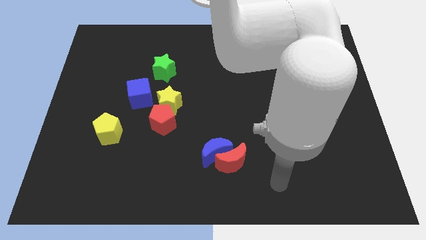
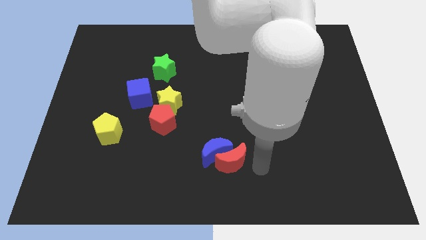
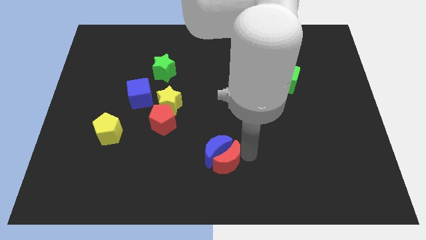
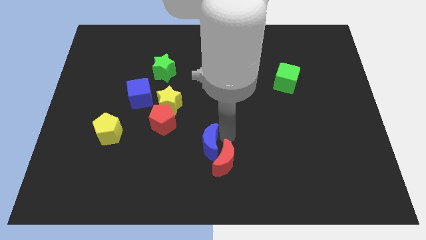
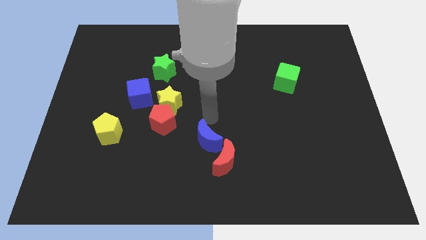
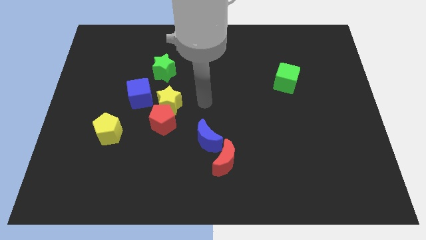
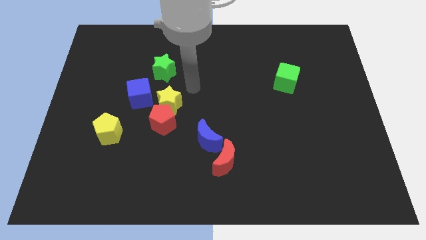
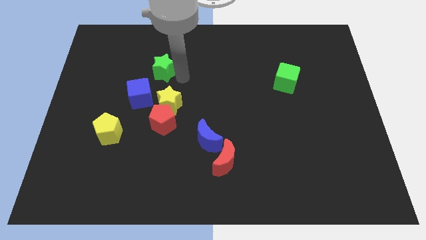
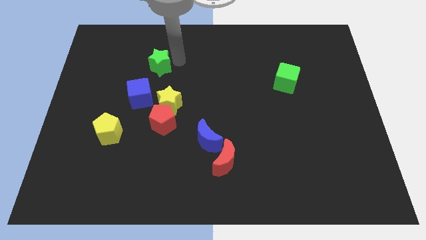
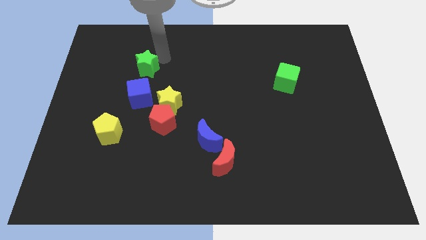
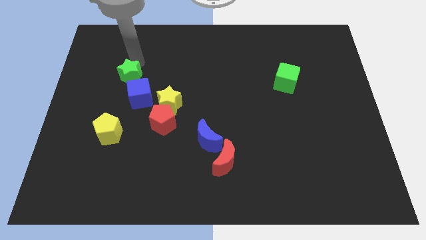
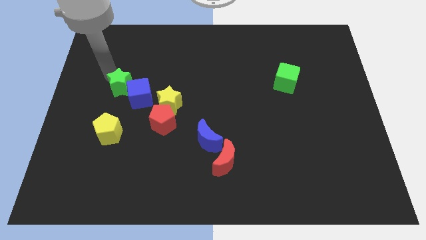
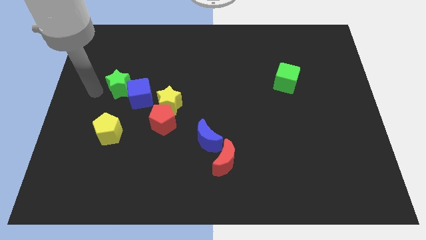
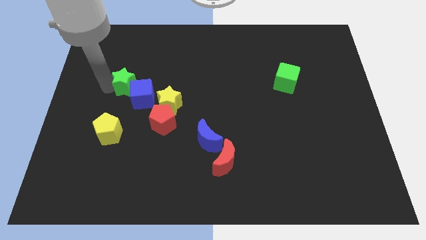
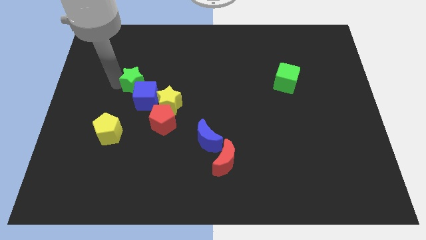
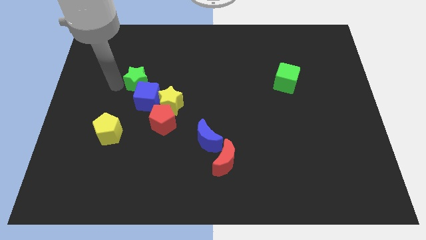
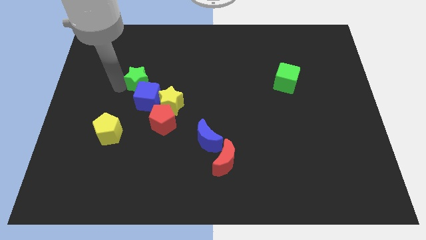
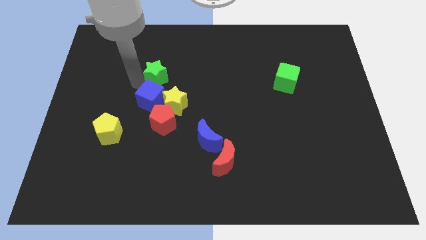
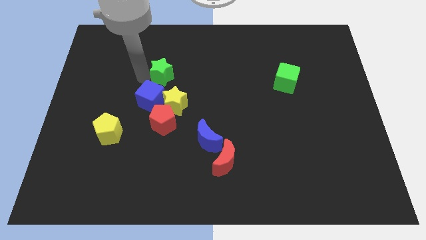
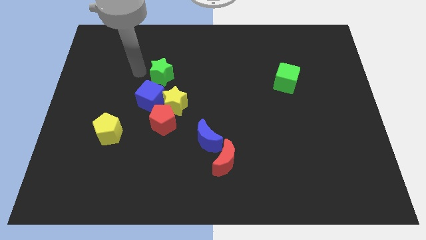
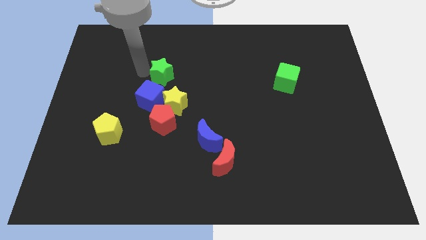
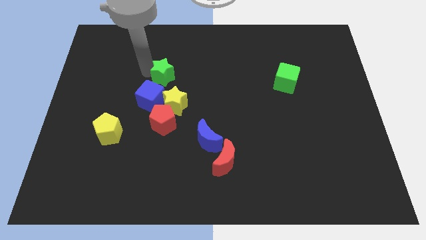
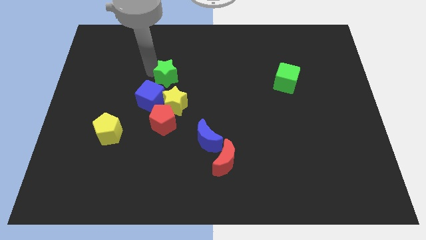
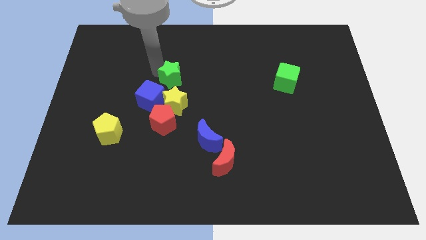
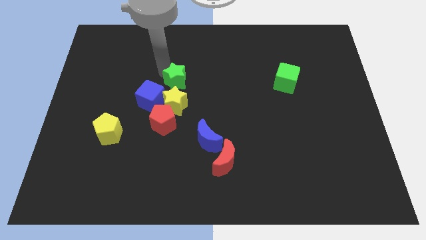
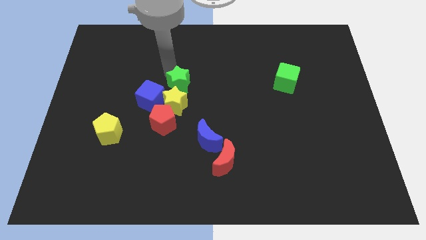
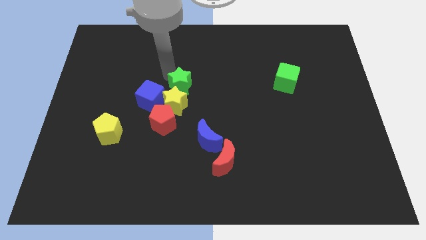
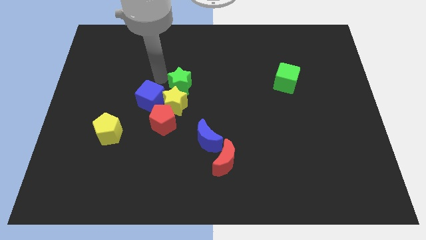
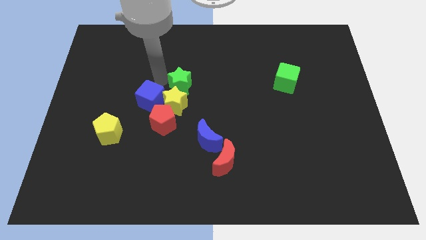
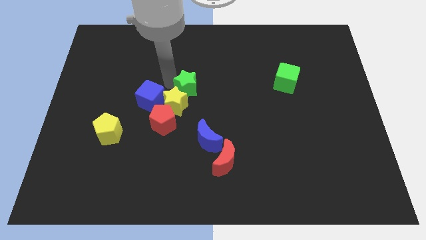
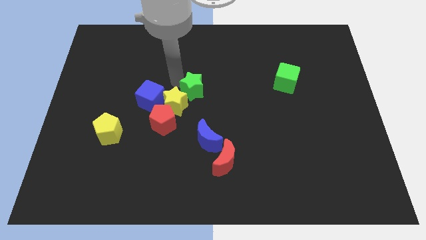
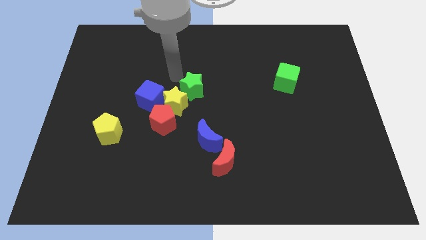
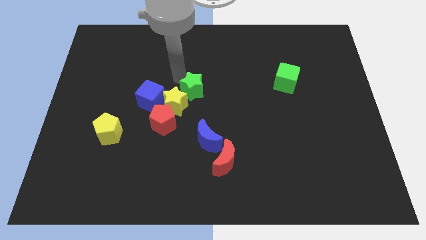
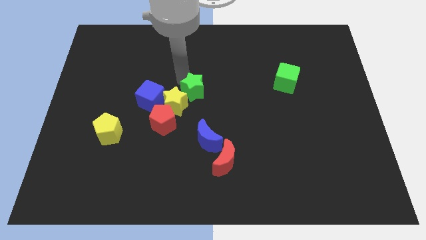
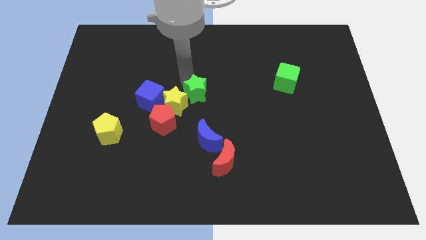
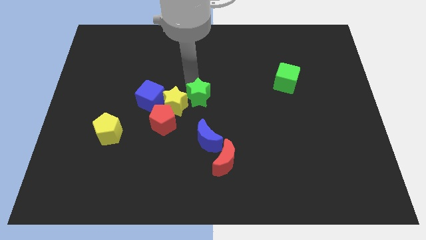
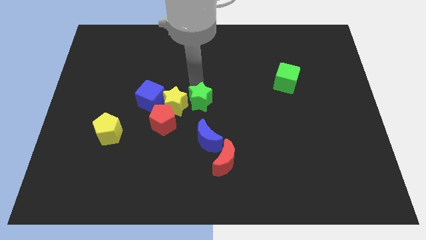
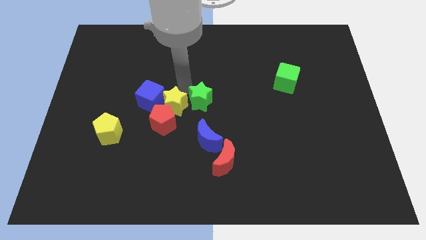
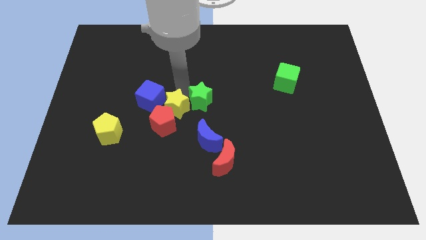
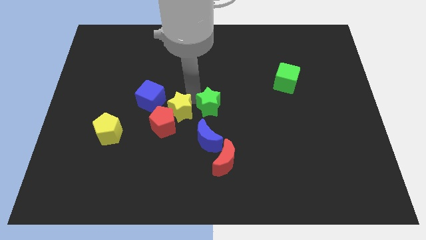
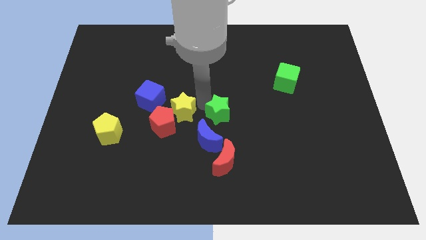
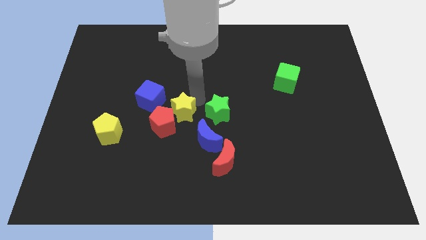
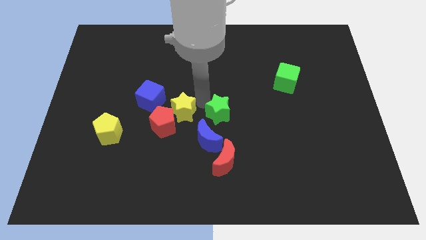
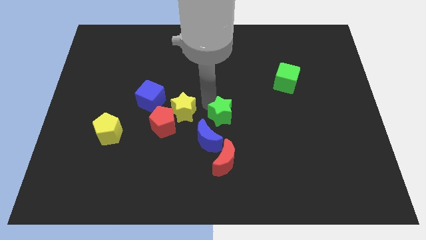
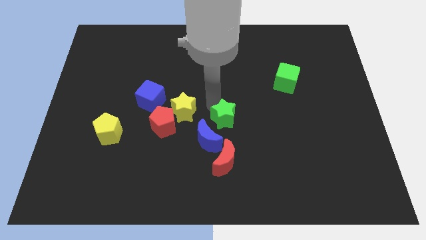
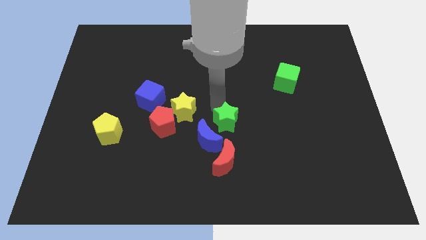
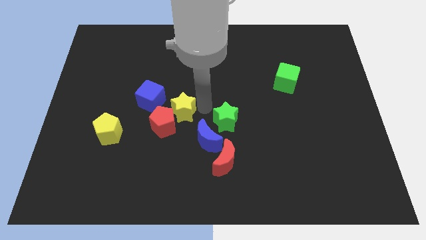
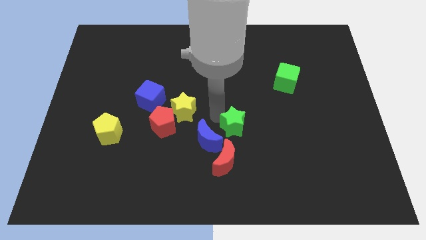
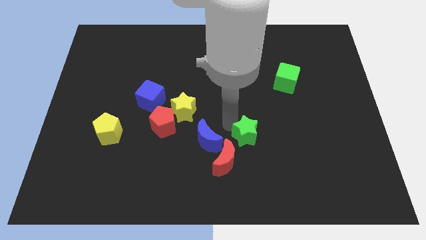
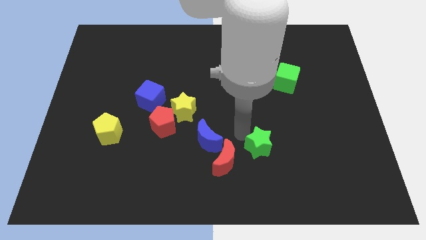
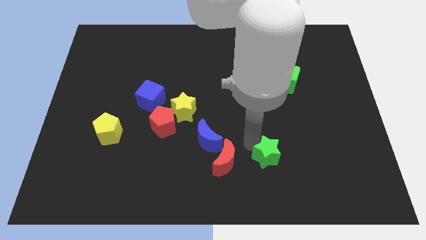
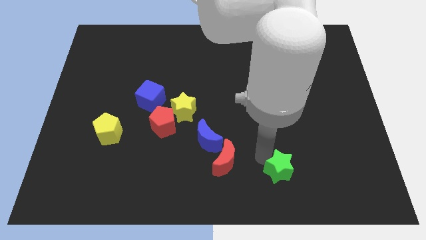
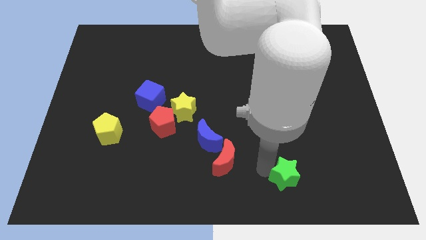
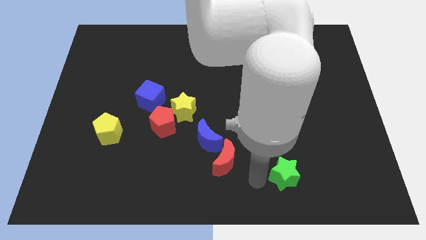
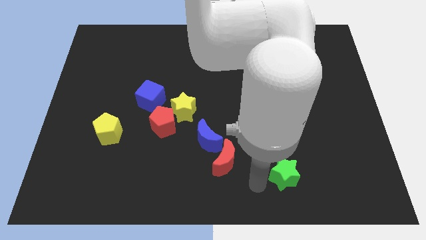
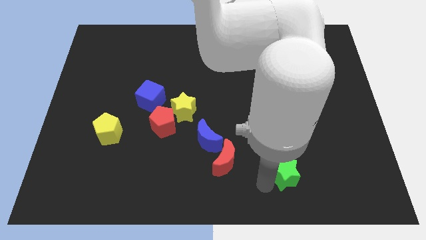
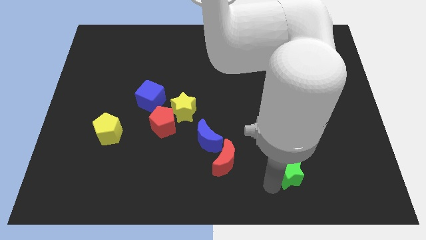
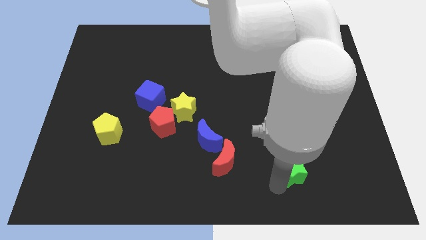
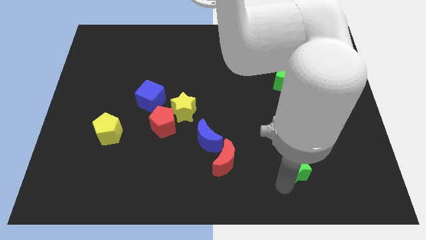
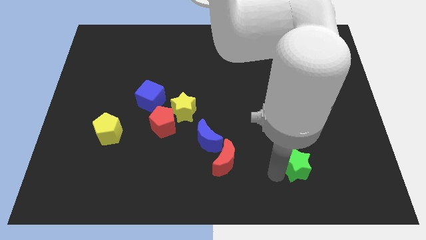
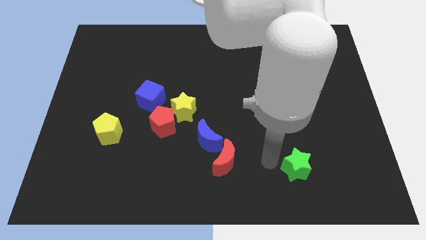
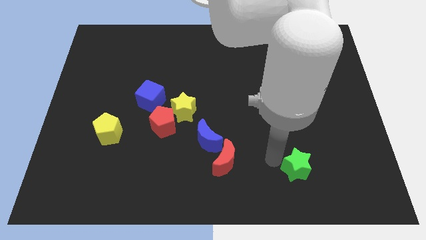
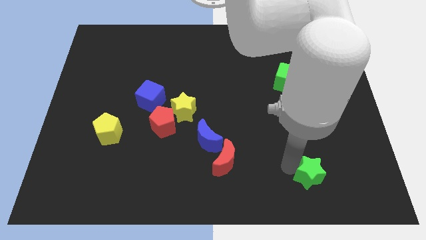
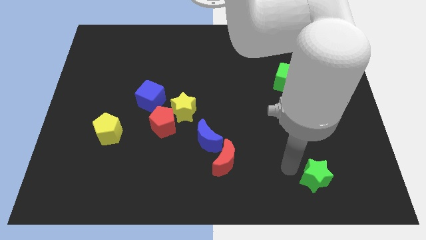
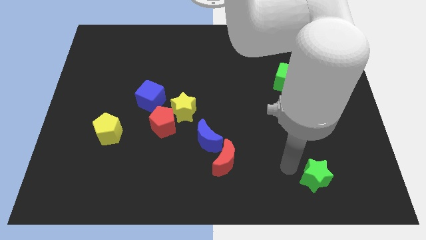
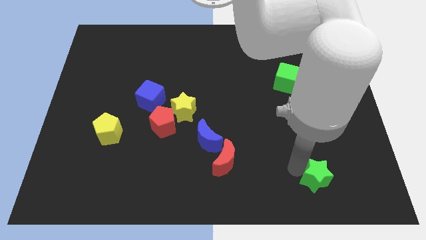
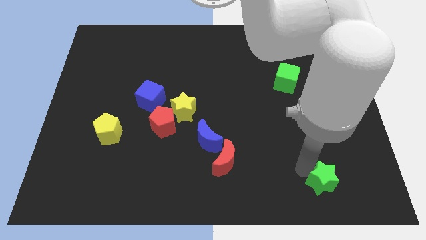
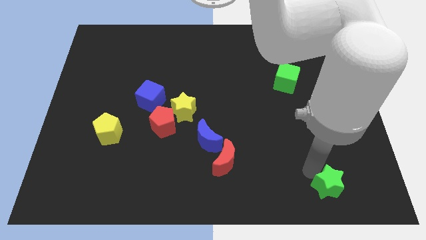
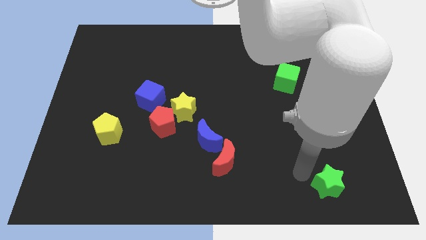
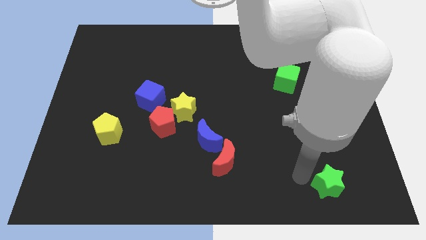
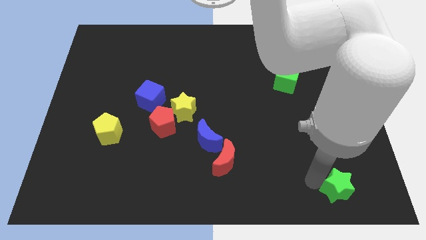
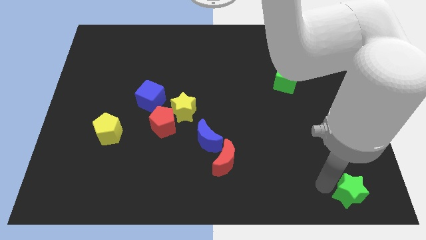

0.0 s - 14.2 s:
move the green star to the bottom right
